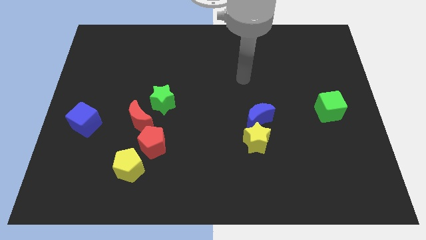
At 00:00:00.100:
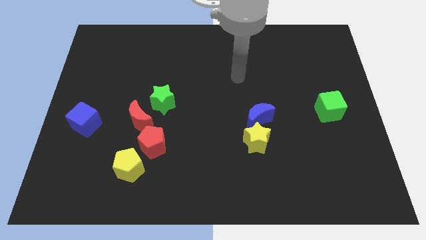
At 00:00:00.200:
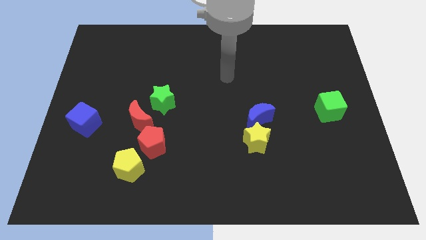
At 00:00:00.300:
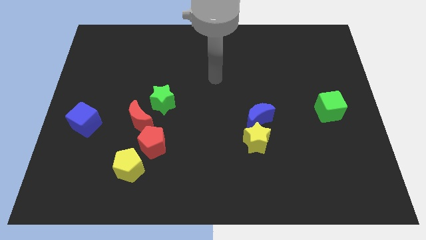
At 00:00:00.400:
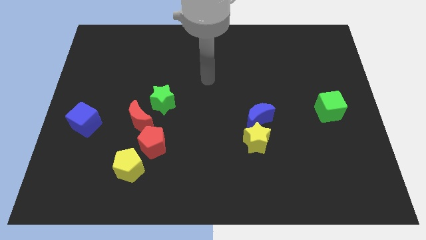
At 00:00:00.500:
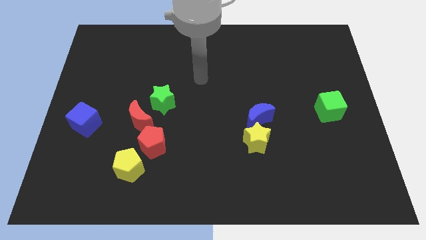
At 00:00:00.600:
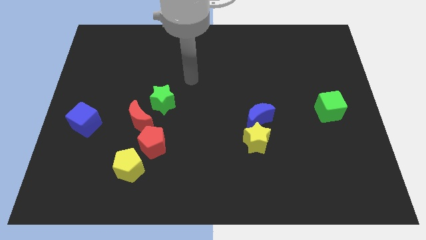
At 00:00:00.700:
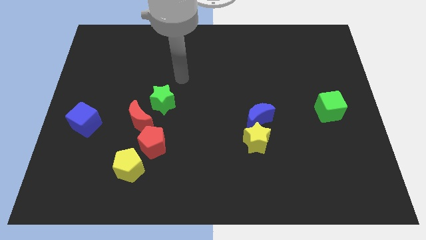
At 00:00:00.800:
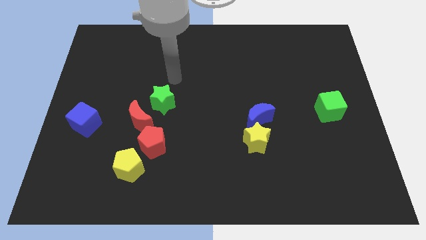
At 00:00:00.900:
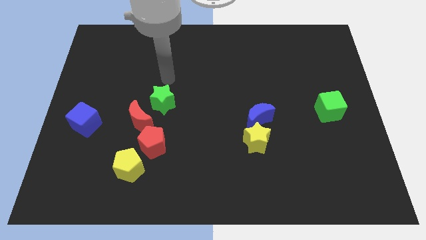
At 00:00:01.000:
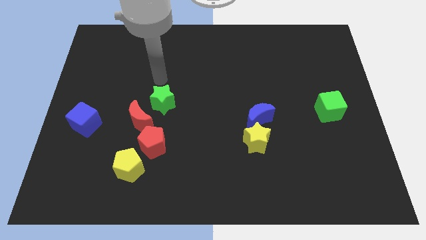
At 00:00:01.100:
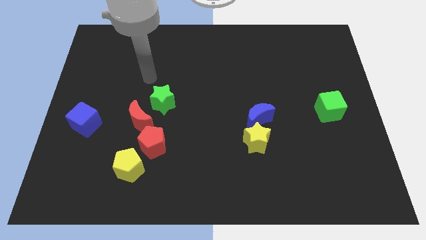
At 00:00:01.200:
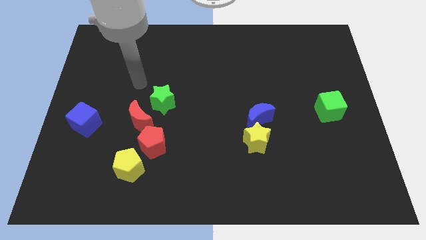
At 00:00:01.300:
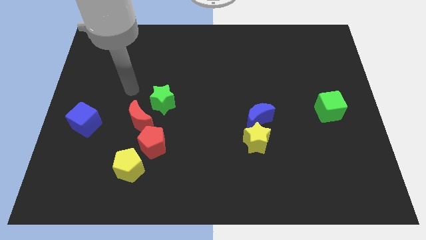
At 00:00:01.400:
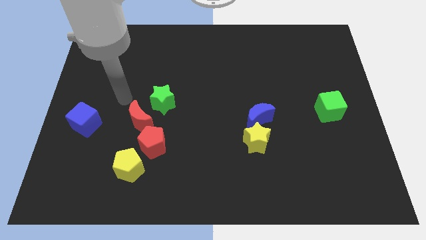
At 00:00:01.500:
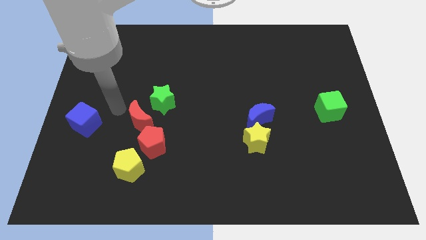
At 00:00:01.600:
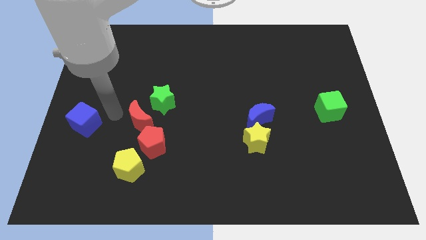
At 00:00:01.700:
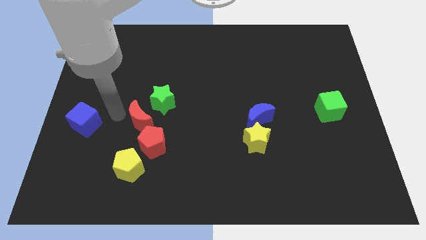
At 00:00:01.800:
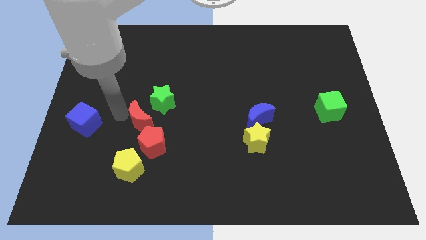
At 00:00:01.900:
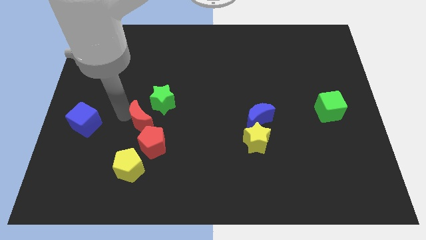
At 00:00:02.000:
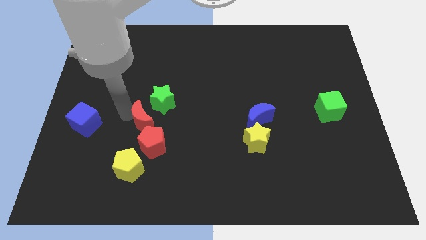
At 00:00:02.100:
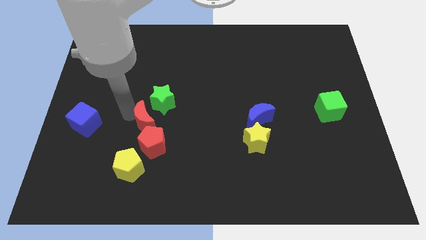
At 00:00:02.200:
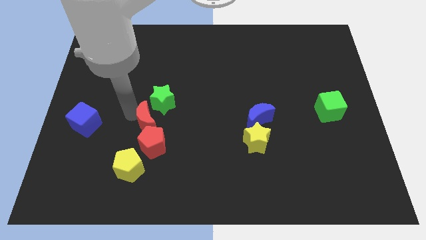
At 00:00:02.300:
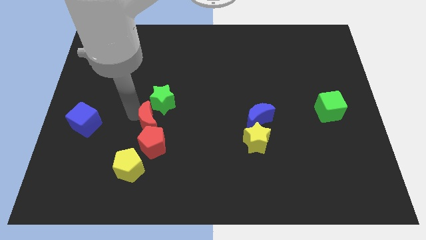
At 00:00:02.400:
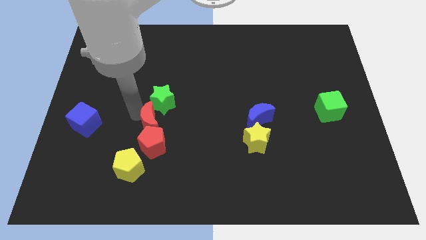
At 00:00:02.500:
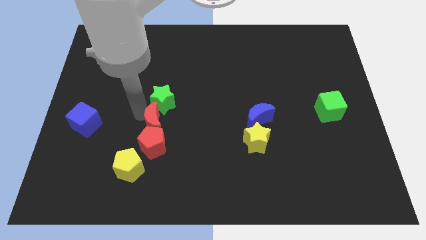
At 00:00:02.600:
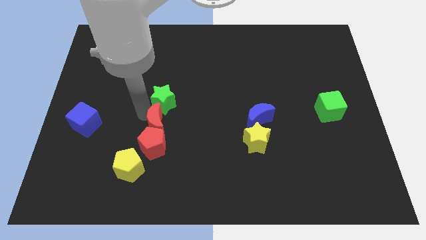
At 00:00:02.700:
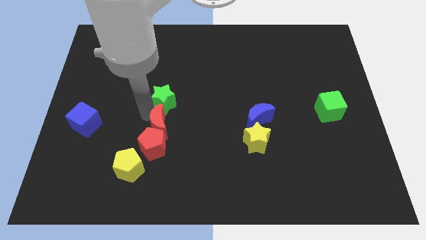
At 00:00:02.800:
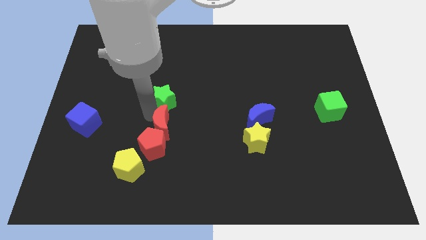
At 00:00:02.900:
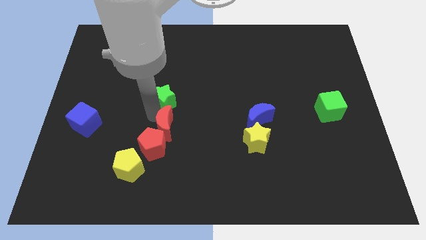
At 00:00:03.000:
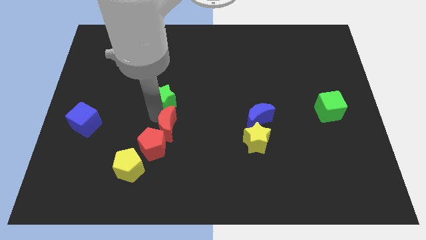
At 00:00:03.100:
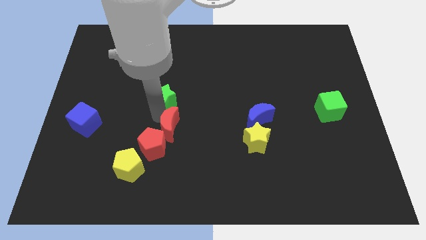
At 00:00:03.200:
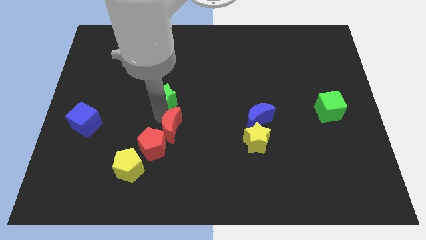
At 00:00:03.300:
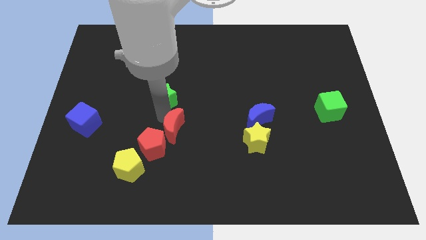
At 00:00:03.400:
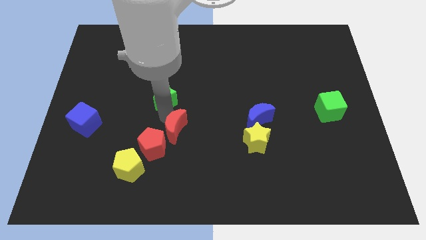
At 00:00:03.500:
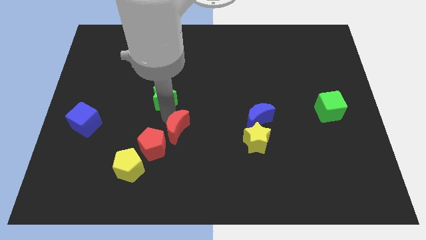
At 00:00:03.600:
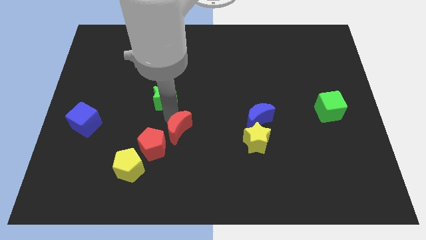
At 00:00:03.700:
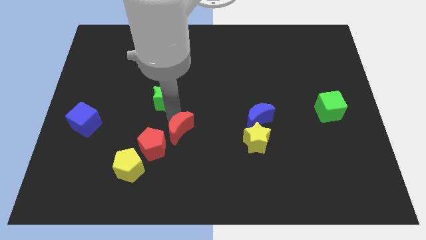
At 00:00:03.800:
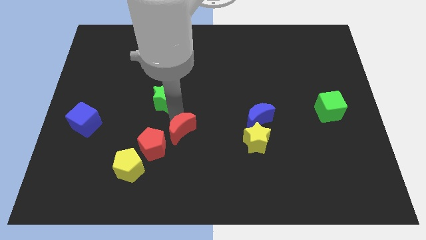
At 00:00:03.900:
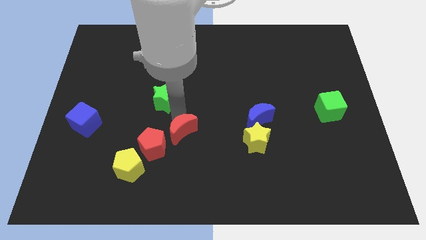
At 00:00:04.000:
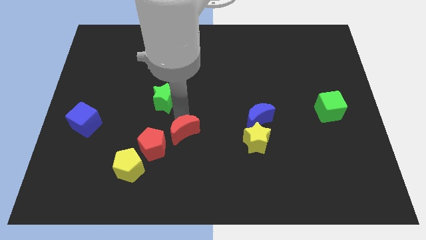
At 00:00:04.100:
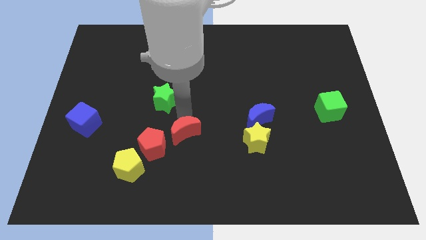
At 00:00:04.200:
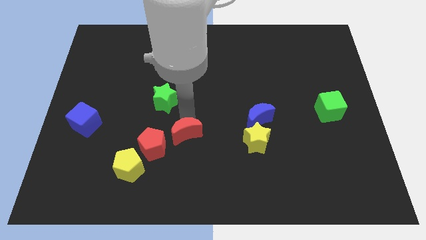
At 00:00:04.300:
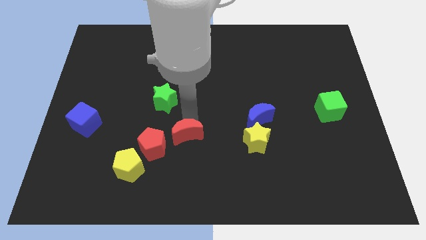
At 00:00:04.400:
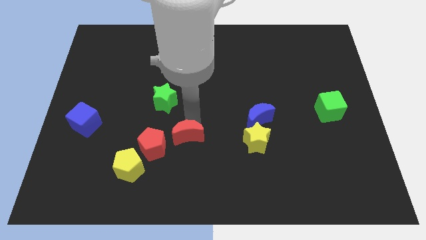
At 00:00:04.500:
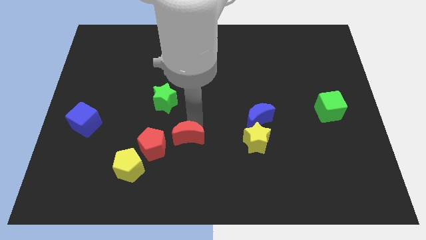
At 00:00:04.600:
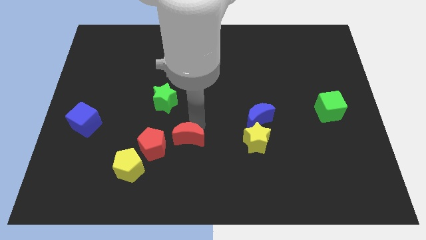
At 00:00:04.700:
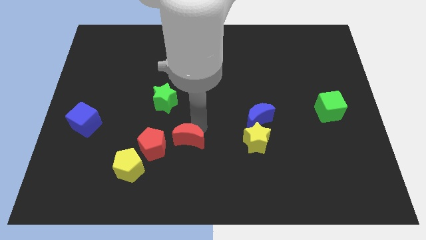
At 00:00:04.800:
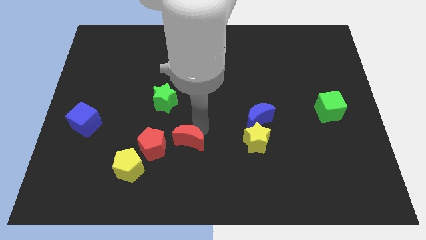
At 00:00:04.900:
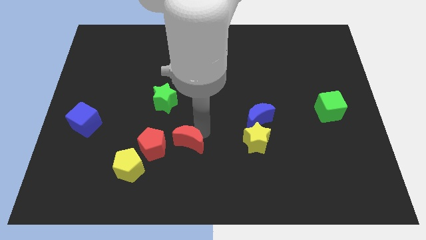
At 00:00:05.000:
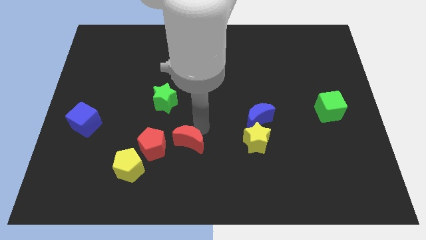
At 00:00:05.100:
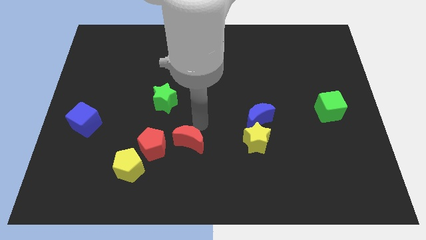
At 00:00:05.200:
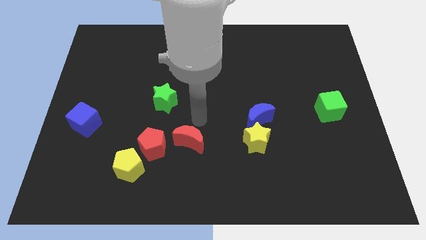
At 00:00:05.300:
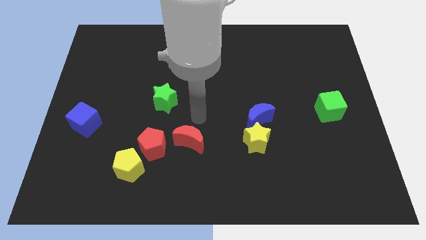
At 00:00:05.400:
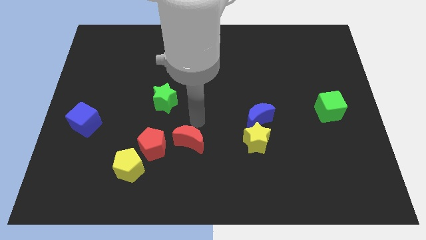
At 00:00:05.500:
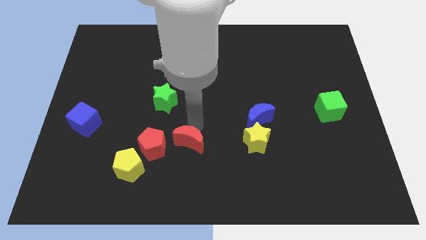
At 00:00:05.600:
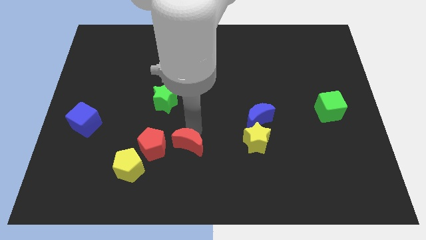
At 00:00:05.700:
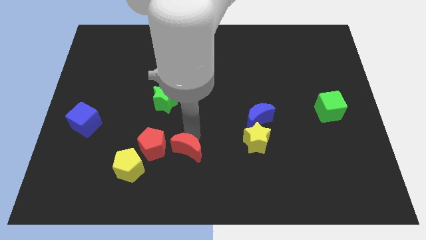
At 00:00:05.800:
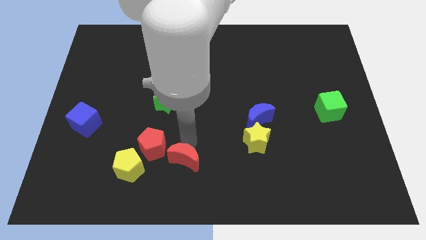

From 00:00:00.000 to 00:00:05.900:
push the red moon to the bottom

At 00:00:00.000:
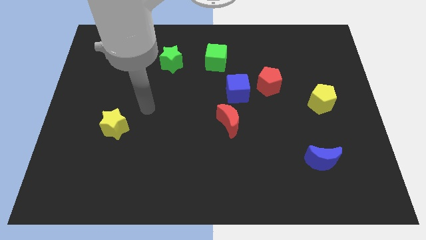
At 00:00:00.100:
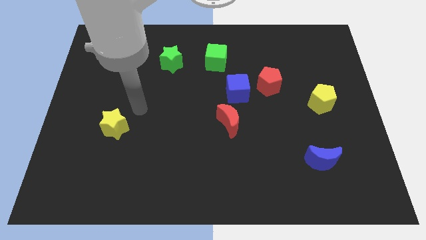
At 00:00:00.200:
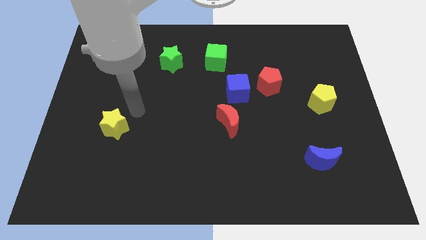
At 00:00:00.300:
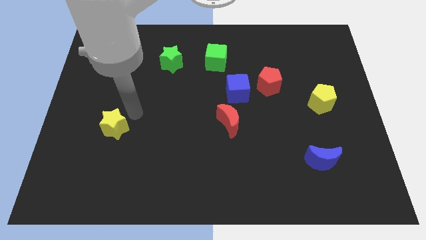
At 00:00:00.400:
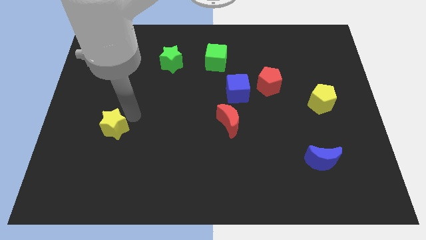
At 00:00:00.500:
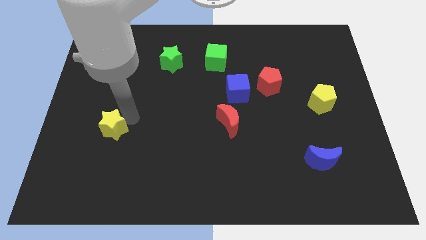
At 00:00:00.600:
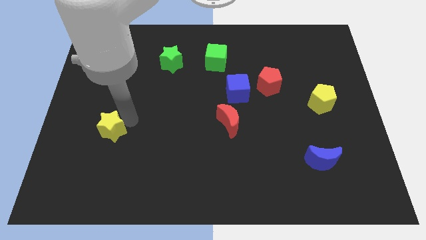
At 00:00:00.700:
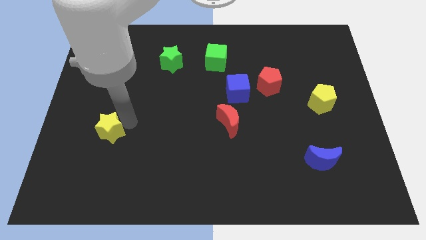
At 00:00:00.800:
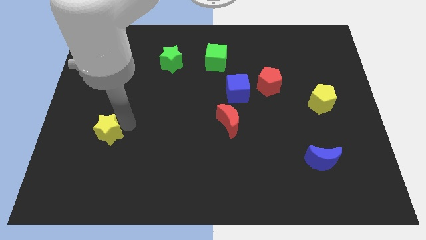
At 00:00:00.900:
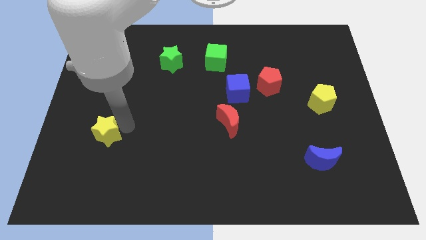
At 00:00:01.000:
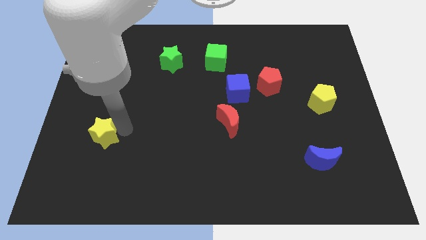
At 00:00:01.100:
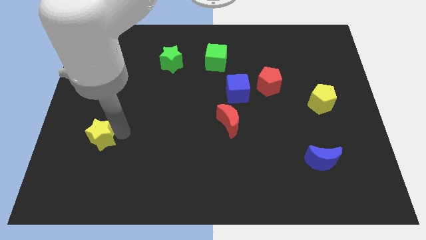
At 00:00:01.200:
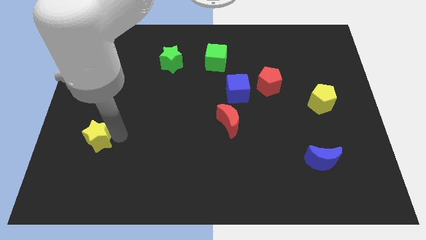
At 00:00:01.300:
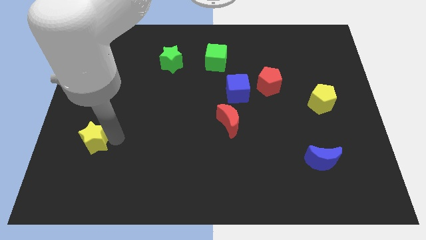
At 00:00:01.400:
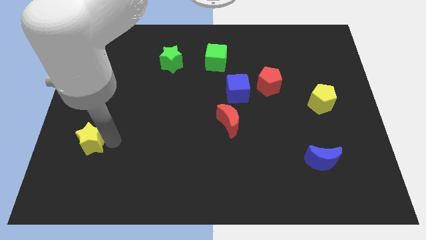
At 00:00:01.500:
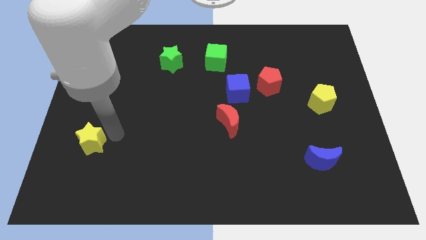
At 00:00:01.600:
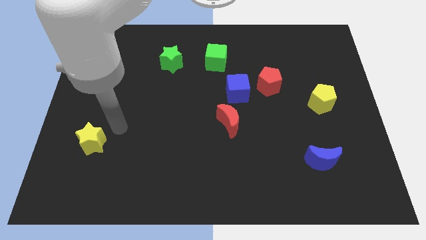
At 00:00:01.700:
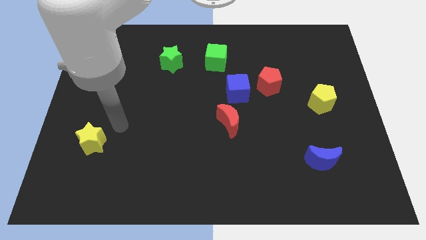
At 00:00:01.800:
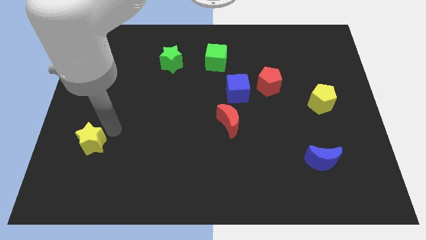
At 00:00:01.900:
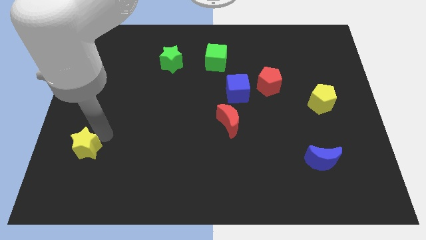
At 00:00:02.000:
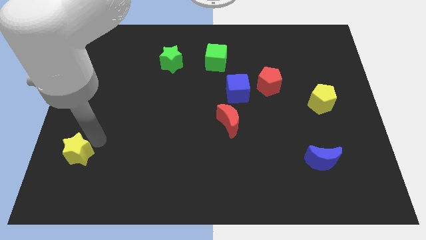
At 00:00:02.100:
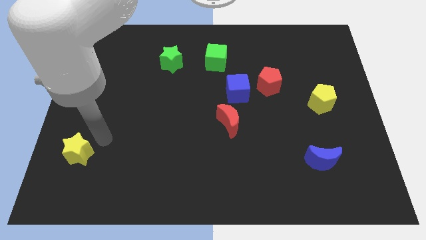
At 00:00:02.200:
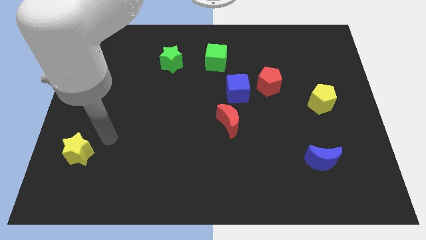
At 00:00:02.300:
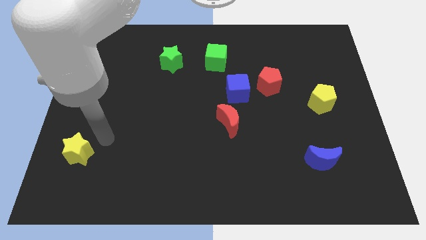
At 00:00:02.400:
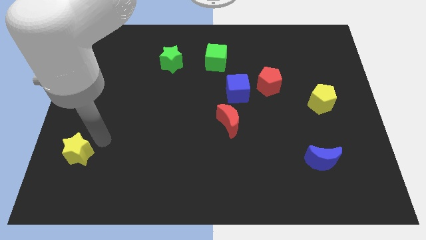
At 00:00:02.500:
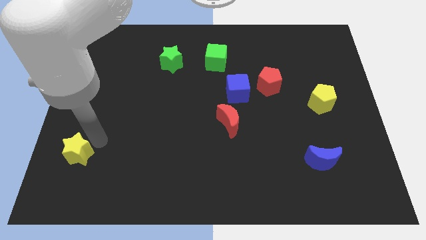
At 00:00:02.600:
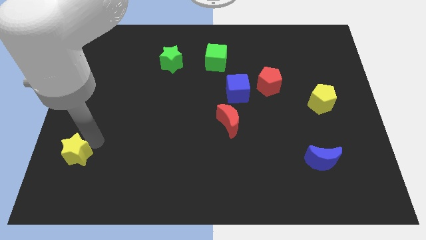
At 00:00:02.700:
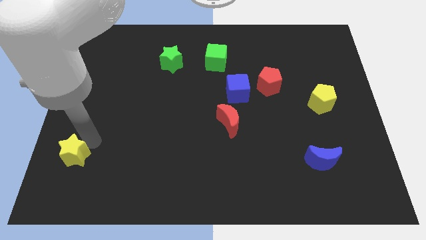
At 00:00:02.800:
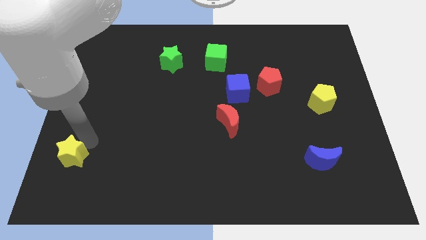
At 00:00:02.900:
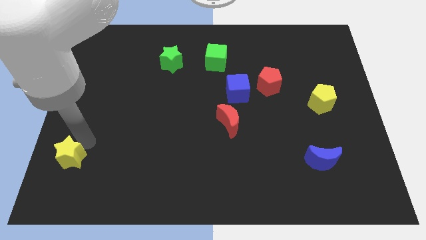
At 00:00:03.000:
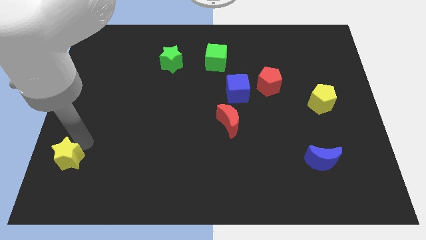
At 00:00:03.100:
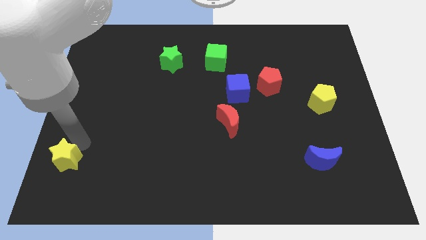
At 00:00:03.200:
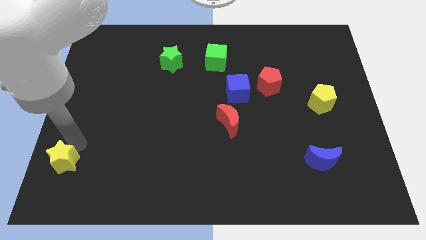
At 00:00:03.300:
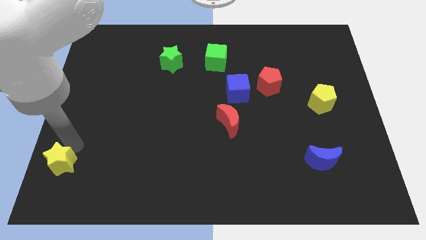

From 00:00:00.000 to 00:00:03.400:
put the yellow star to the bottom left corner
